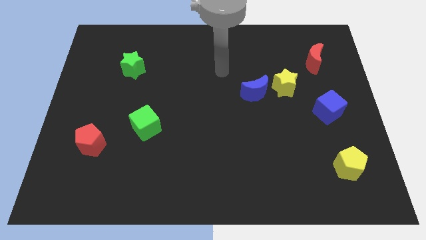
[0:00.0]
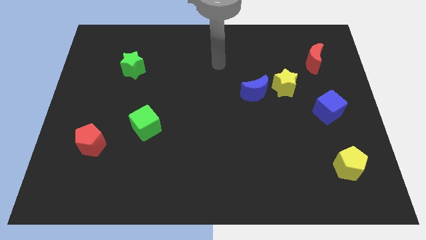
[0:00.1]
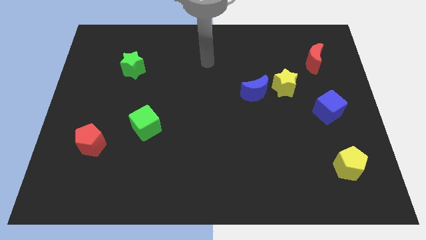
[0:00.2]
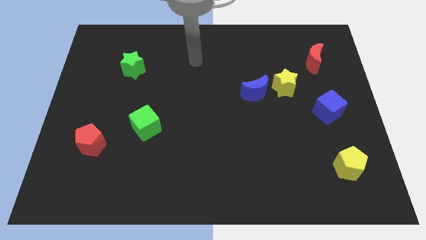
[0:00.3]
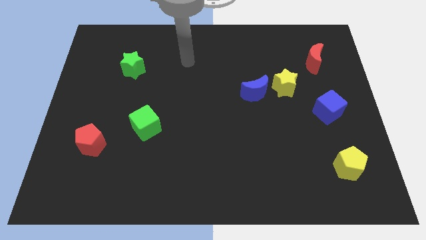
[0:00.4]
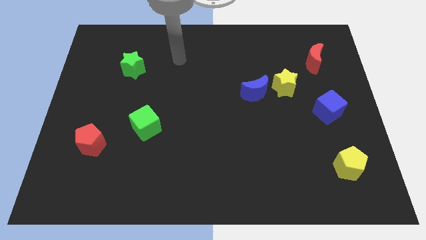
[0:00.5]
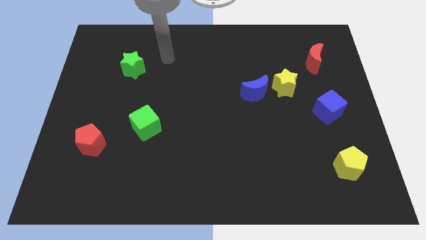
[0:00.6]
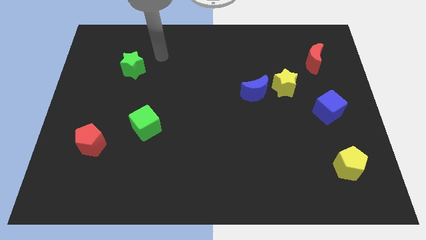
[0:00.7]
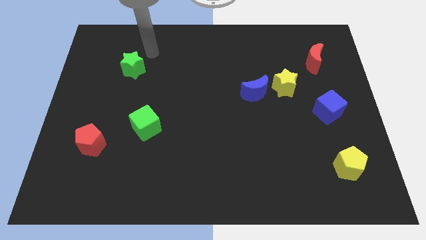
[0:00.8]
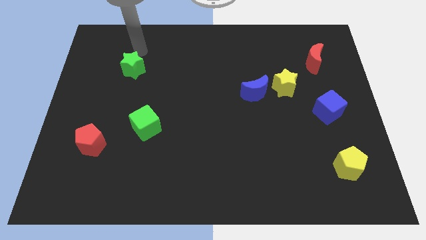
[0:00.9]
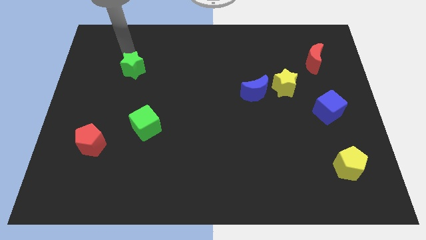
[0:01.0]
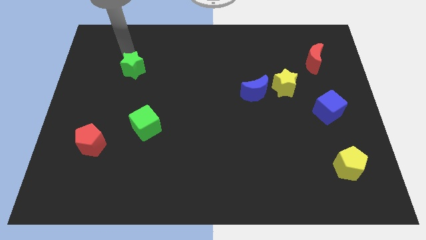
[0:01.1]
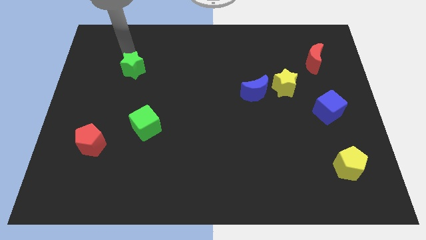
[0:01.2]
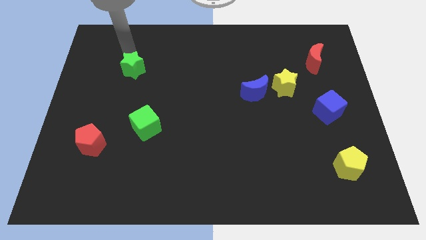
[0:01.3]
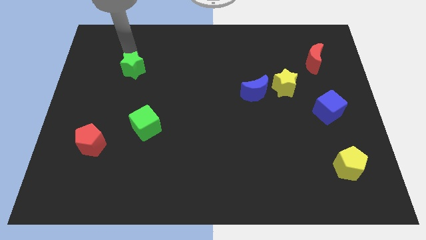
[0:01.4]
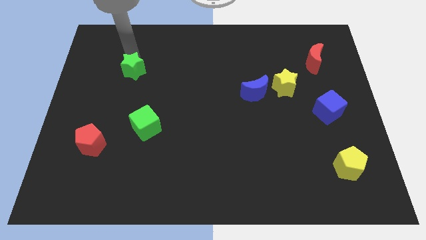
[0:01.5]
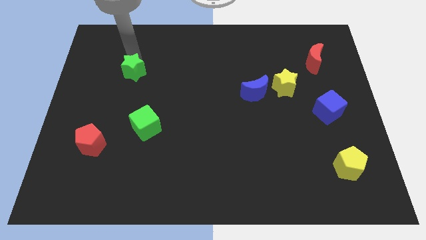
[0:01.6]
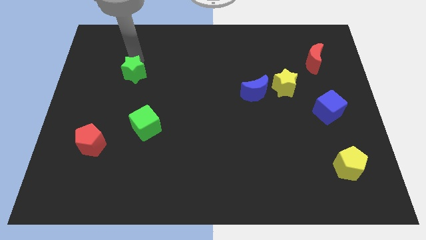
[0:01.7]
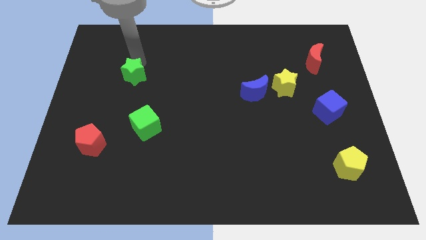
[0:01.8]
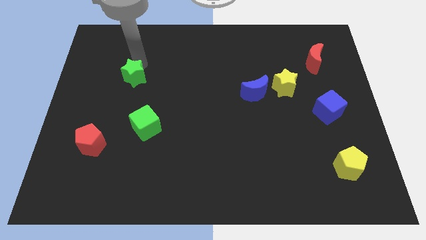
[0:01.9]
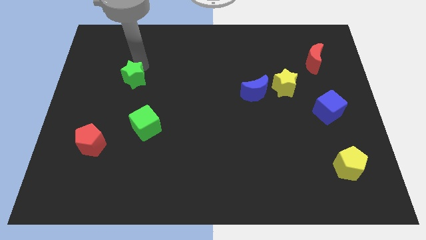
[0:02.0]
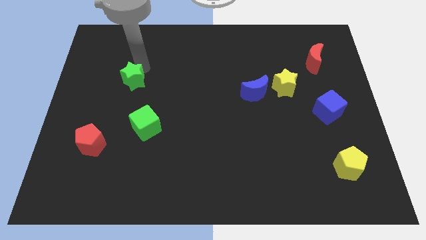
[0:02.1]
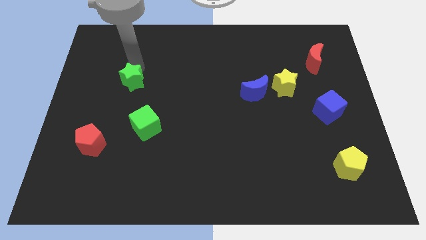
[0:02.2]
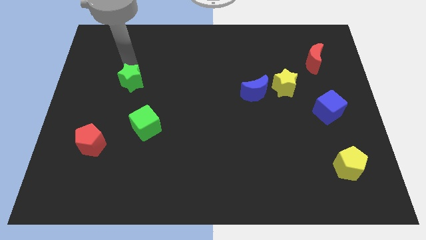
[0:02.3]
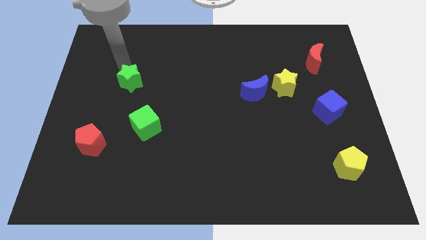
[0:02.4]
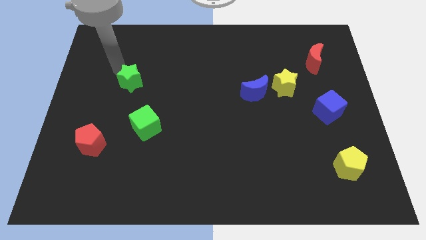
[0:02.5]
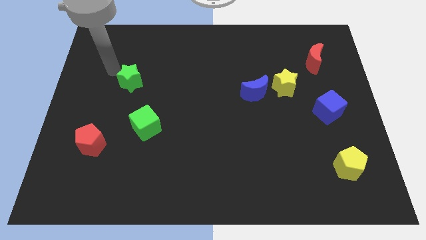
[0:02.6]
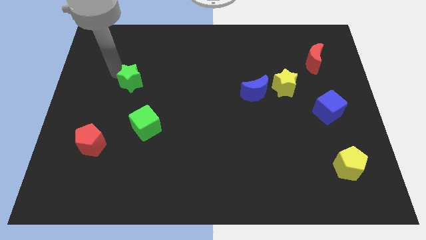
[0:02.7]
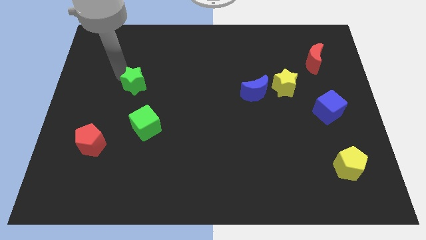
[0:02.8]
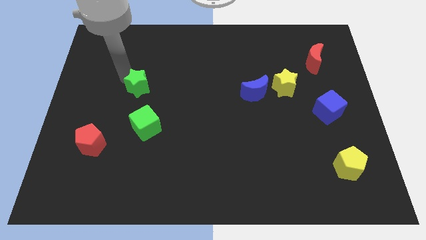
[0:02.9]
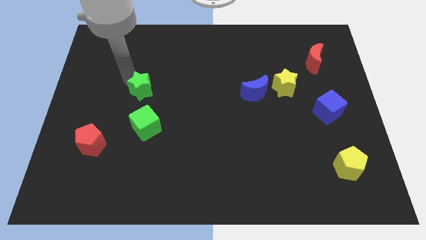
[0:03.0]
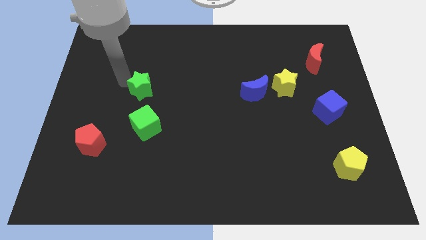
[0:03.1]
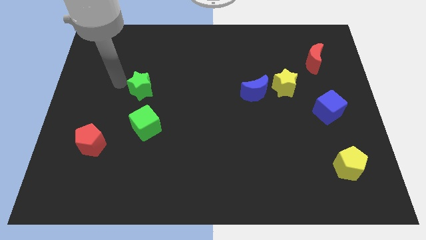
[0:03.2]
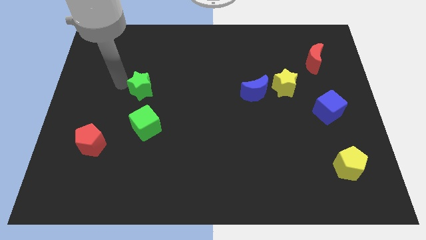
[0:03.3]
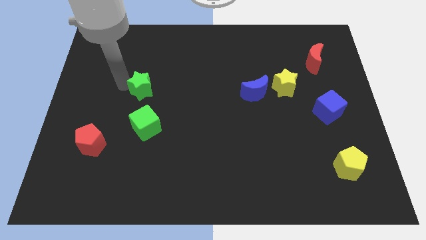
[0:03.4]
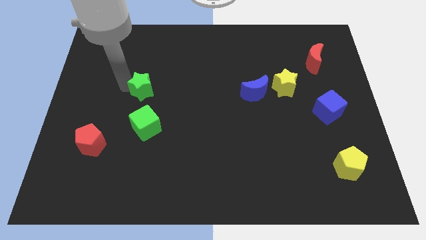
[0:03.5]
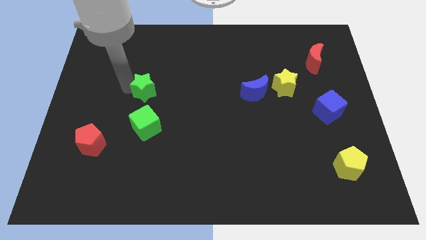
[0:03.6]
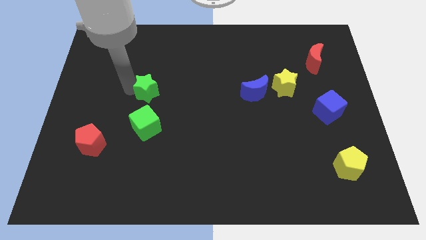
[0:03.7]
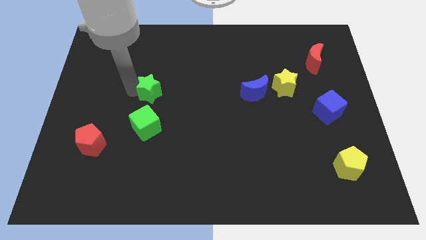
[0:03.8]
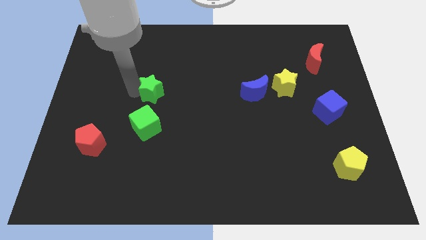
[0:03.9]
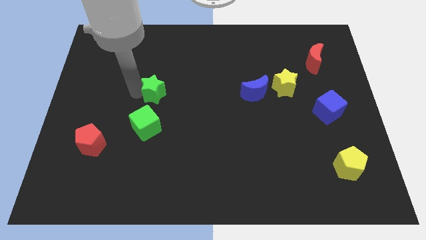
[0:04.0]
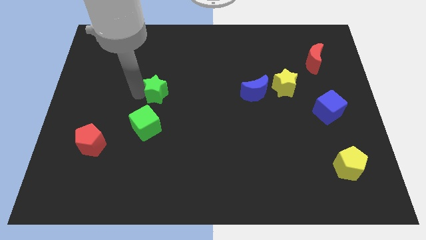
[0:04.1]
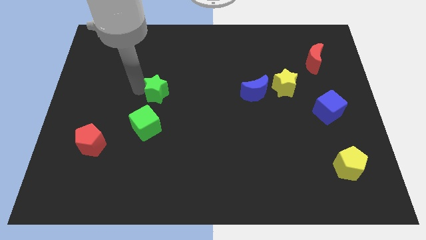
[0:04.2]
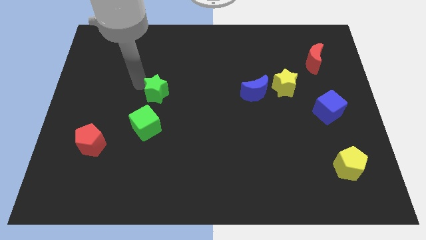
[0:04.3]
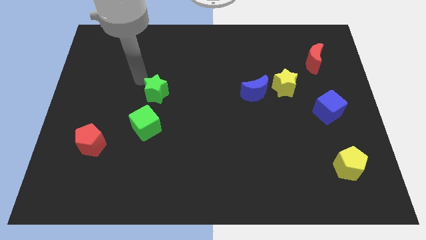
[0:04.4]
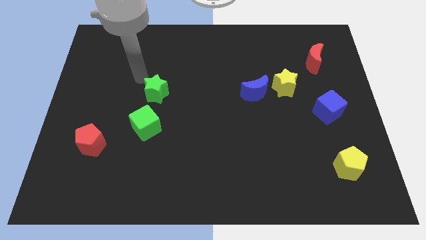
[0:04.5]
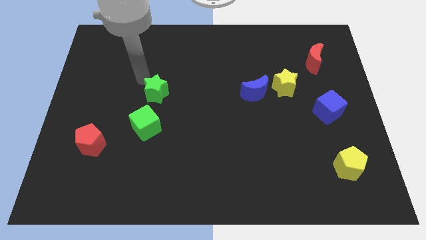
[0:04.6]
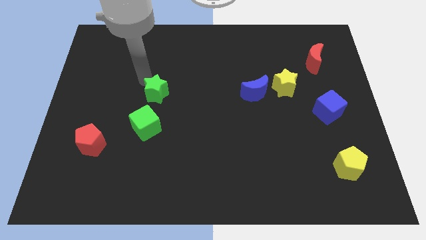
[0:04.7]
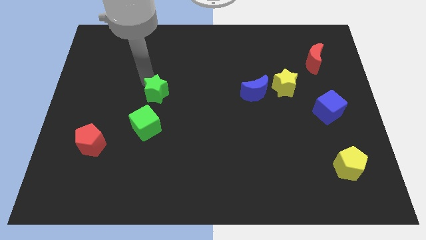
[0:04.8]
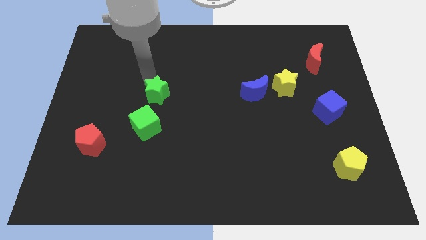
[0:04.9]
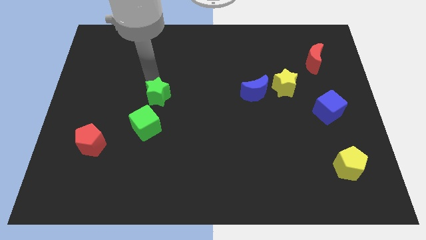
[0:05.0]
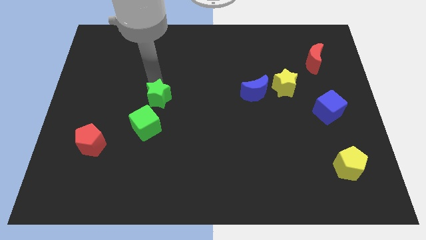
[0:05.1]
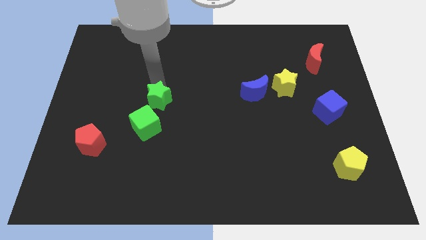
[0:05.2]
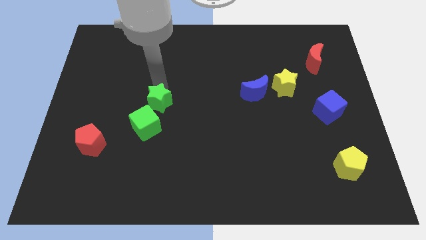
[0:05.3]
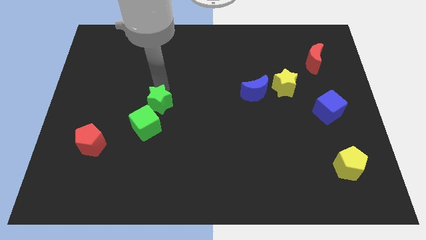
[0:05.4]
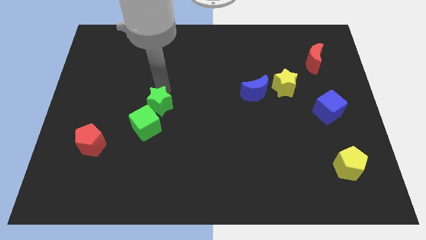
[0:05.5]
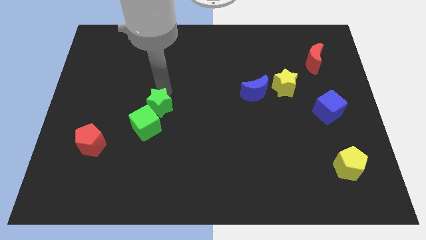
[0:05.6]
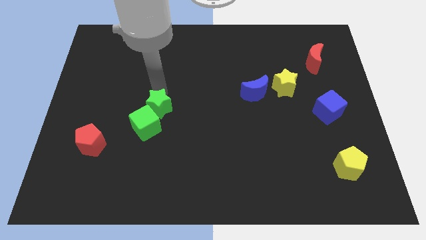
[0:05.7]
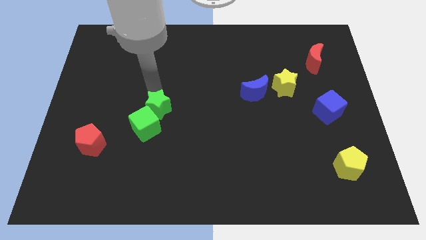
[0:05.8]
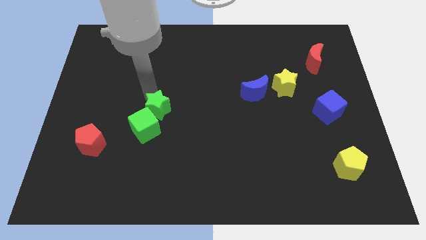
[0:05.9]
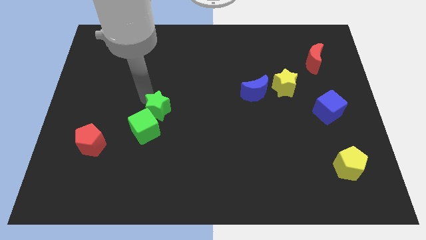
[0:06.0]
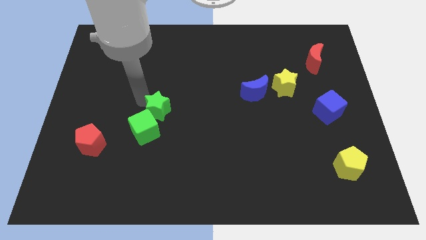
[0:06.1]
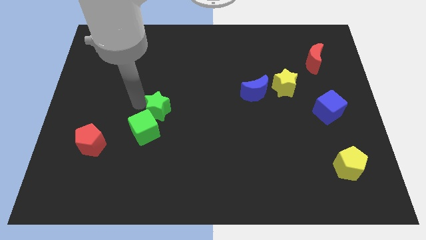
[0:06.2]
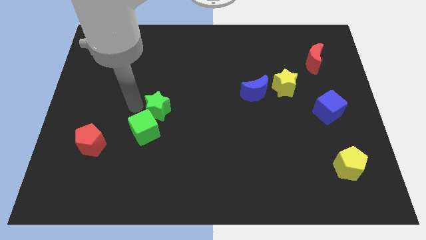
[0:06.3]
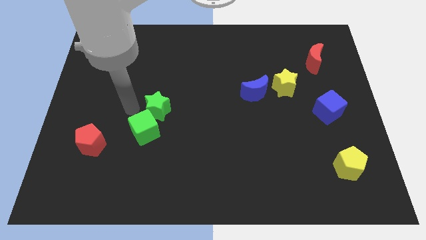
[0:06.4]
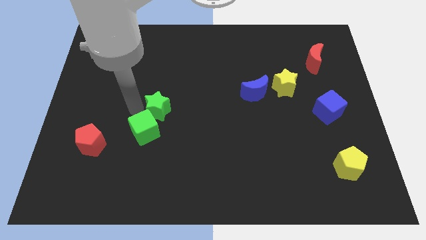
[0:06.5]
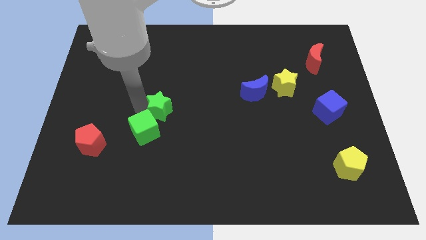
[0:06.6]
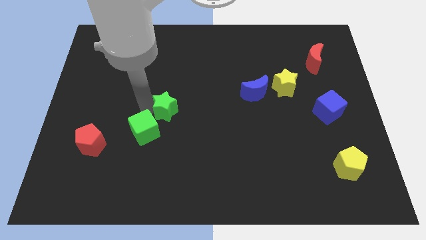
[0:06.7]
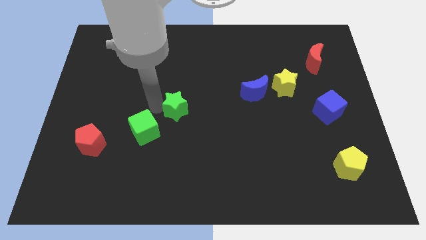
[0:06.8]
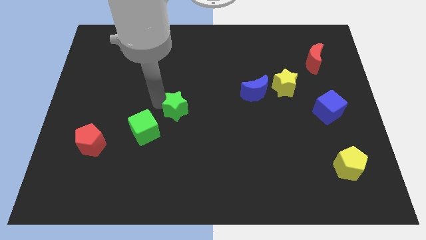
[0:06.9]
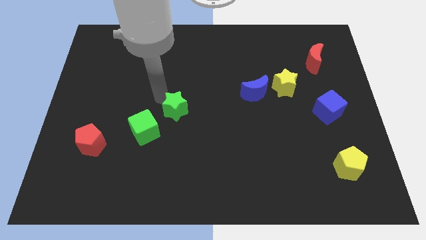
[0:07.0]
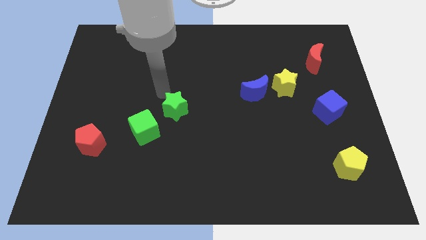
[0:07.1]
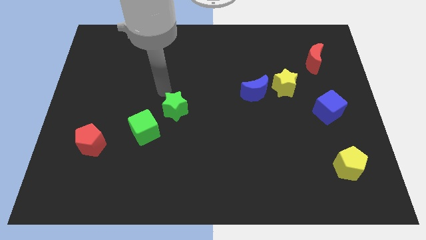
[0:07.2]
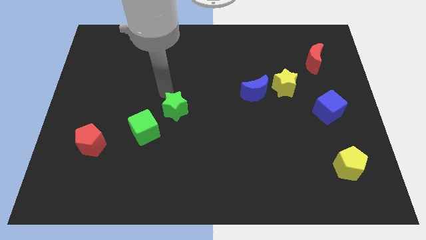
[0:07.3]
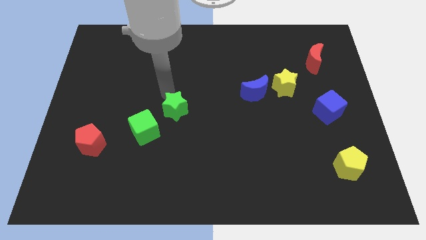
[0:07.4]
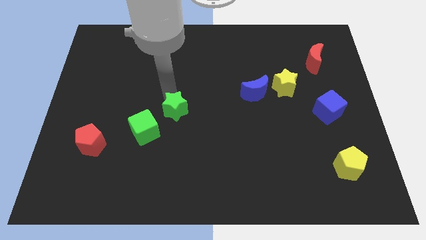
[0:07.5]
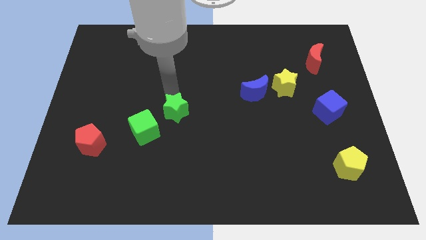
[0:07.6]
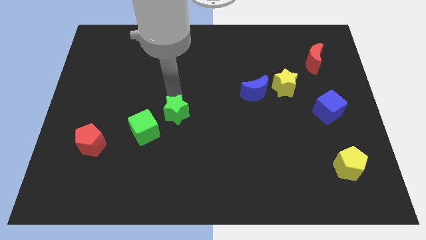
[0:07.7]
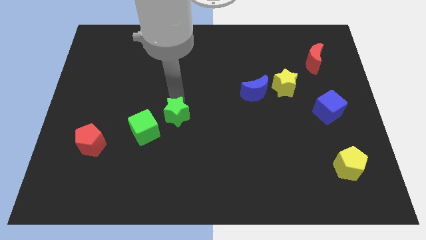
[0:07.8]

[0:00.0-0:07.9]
put the green star to the right of the green cube

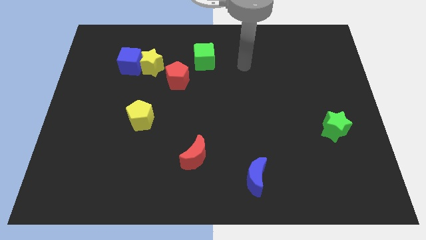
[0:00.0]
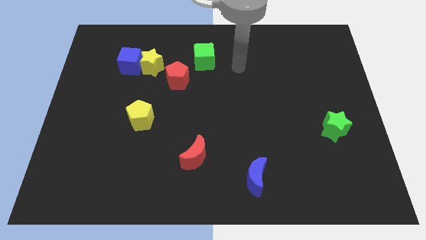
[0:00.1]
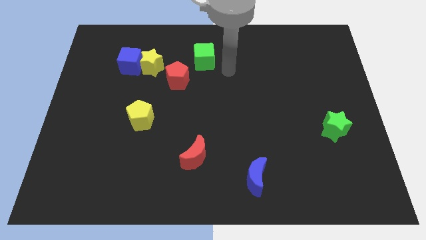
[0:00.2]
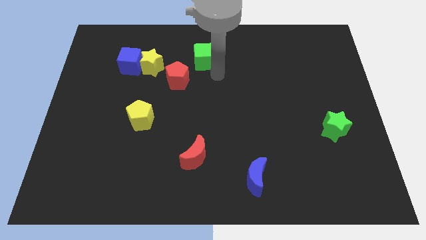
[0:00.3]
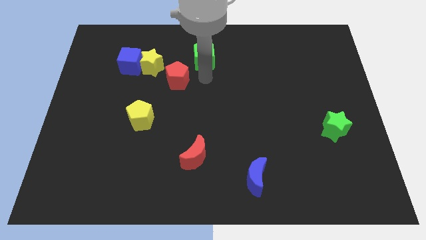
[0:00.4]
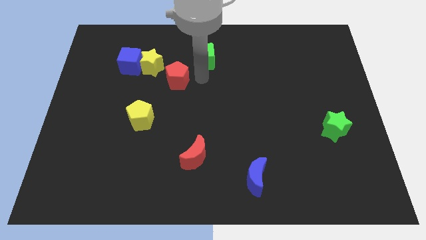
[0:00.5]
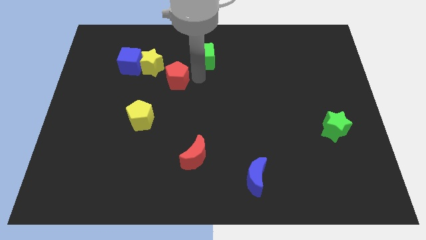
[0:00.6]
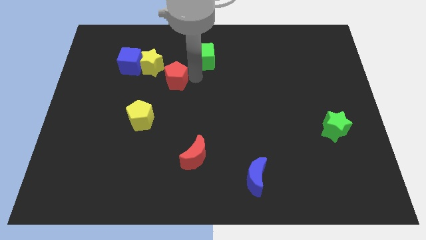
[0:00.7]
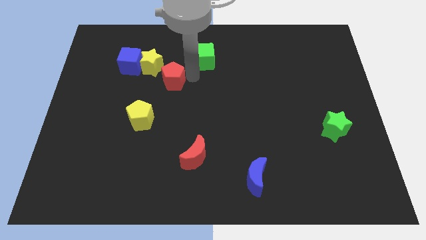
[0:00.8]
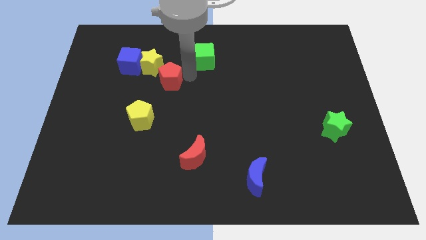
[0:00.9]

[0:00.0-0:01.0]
put the red pentagon to the bottom right of the blue cube
